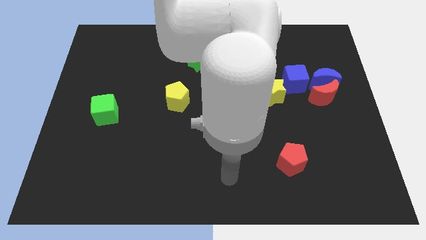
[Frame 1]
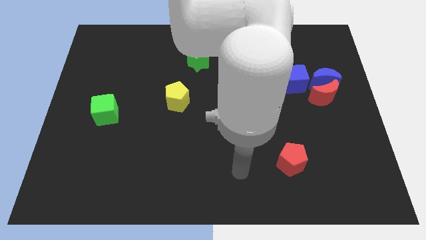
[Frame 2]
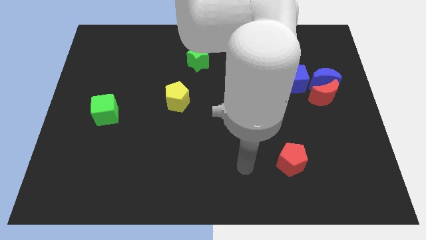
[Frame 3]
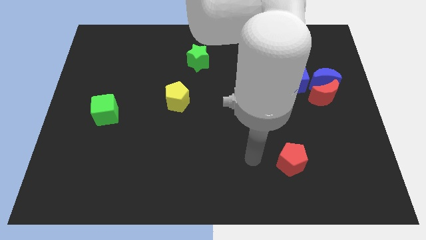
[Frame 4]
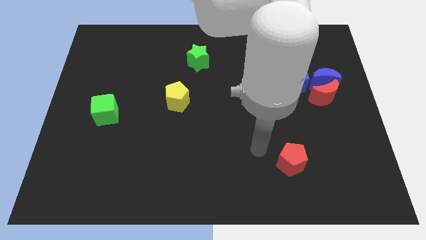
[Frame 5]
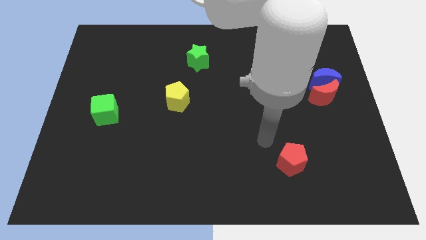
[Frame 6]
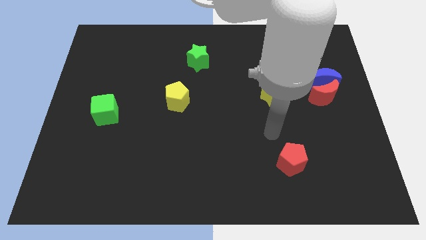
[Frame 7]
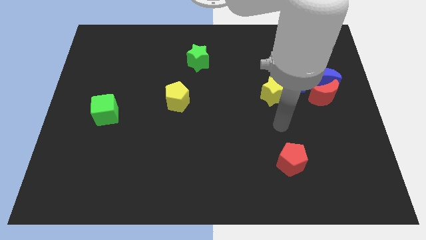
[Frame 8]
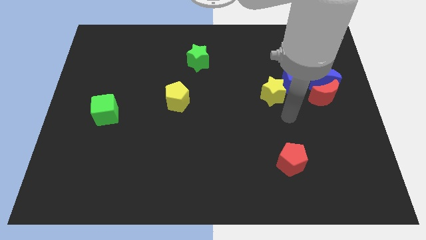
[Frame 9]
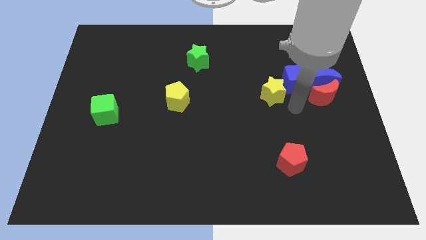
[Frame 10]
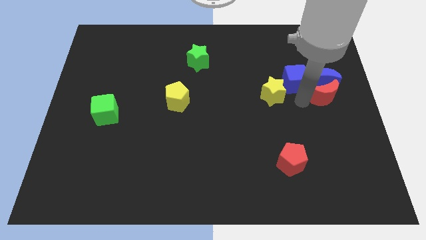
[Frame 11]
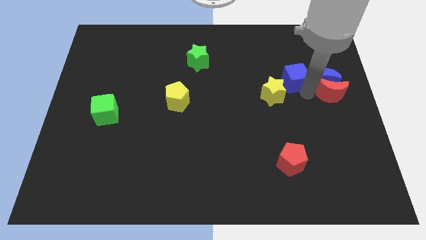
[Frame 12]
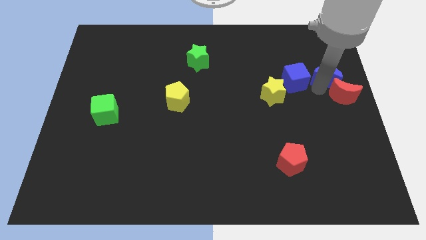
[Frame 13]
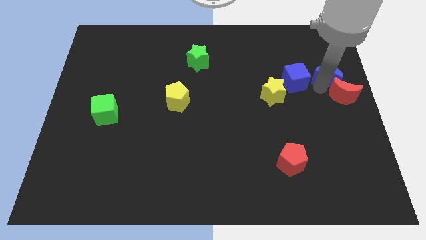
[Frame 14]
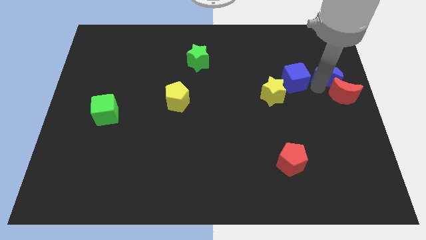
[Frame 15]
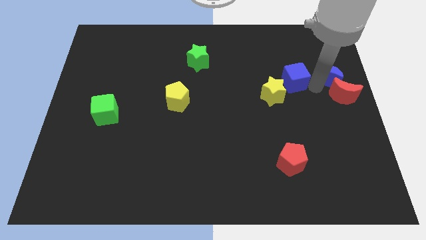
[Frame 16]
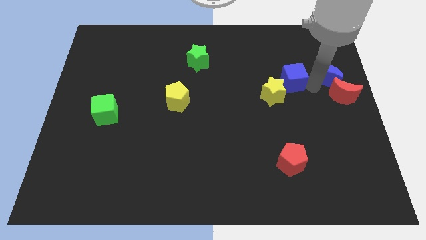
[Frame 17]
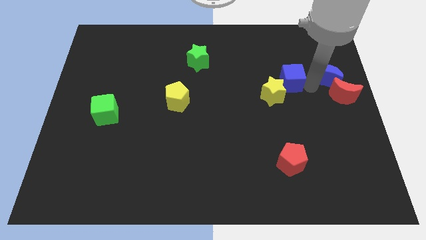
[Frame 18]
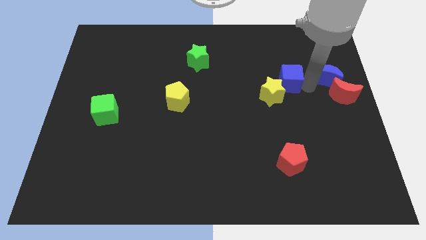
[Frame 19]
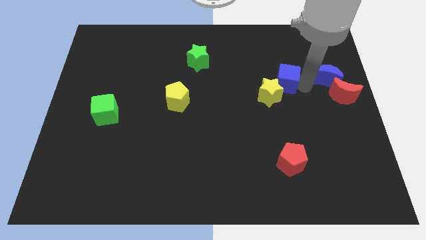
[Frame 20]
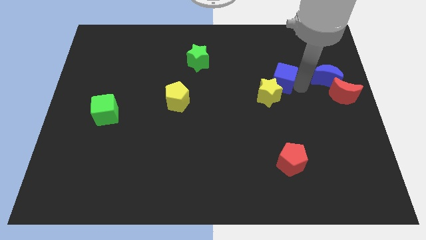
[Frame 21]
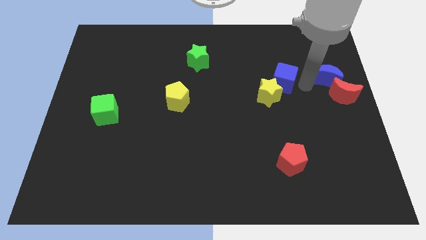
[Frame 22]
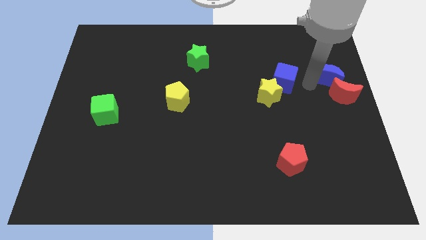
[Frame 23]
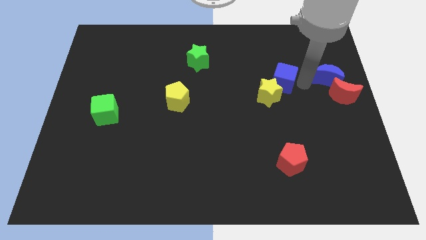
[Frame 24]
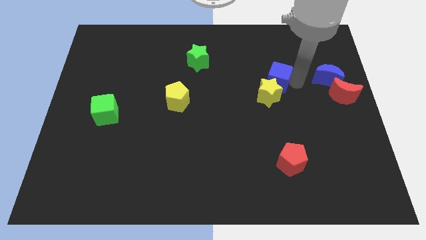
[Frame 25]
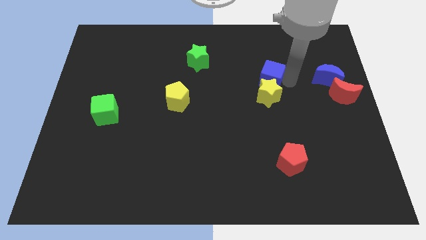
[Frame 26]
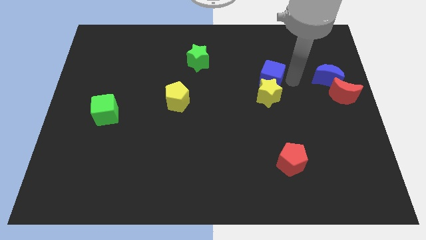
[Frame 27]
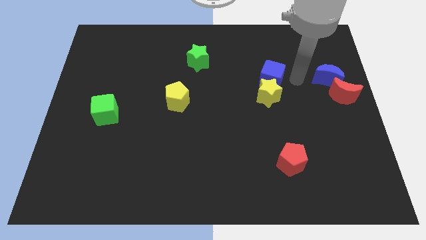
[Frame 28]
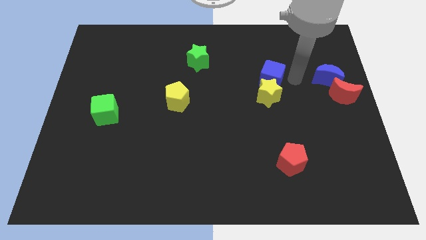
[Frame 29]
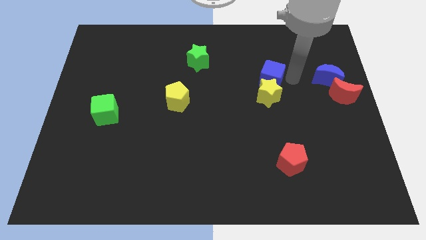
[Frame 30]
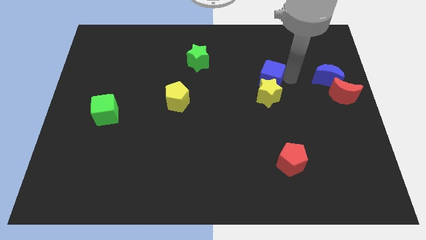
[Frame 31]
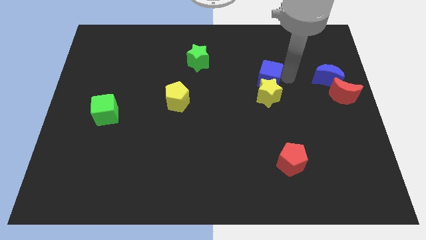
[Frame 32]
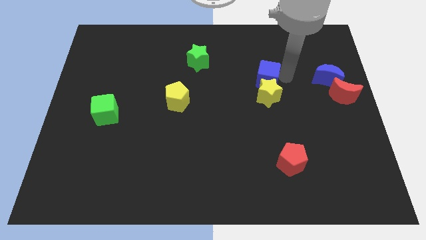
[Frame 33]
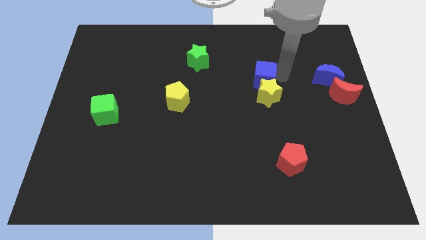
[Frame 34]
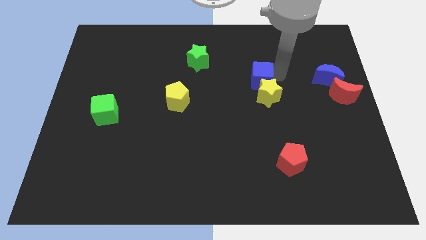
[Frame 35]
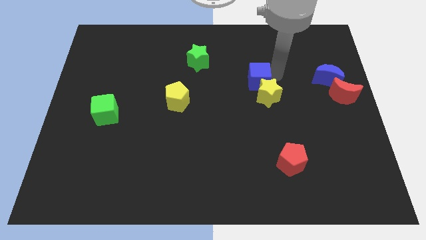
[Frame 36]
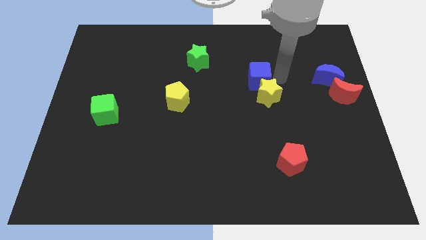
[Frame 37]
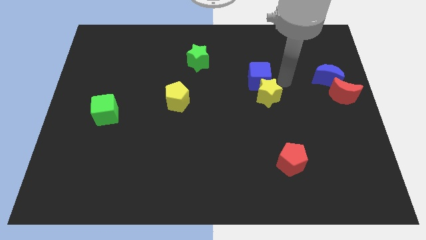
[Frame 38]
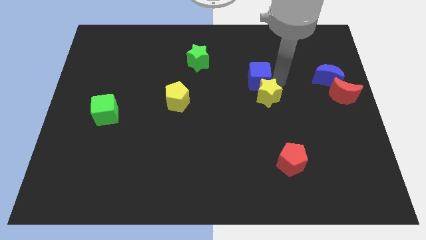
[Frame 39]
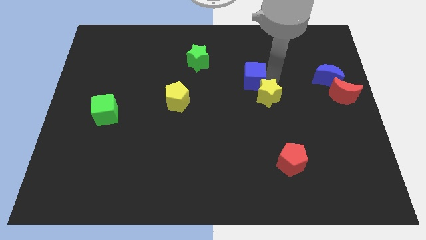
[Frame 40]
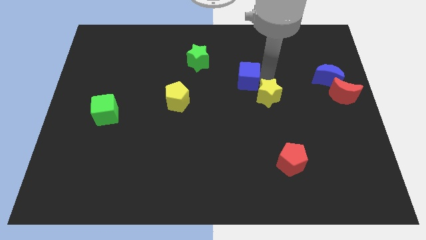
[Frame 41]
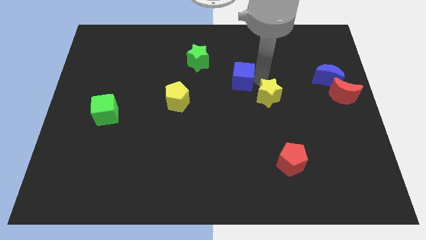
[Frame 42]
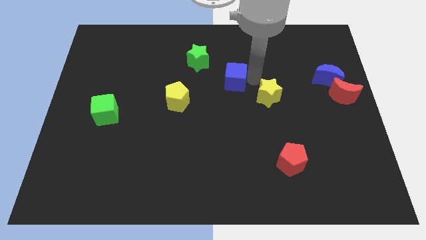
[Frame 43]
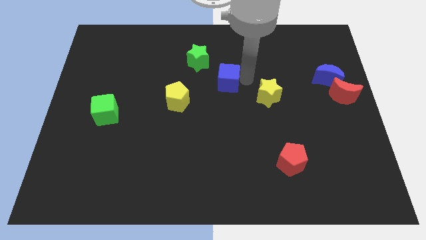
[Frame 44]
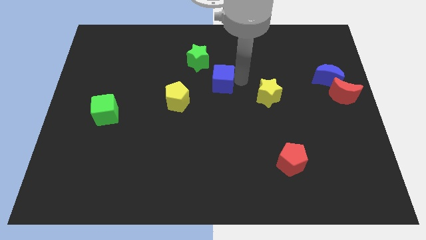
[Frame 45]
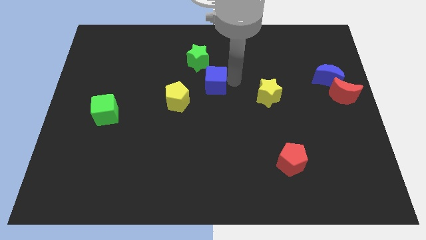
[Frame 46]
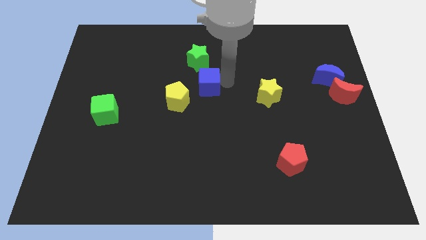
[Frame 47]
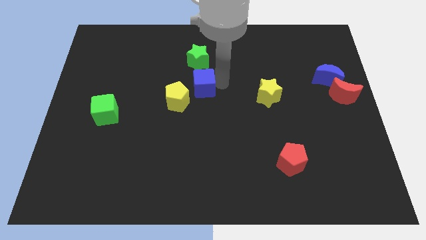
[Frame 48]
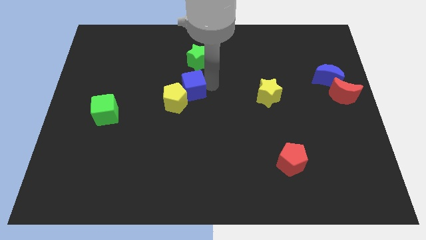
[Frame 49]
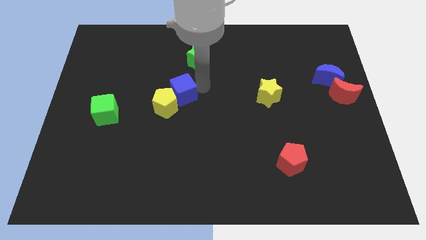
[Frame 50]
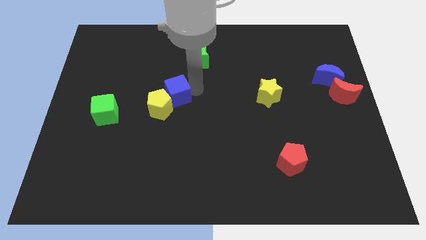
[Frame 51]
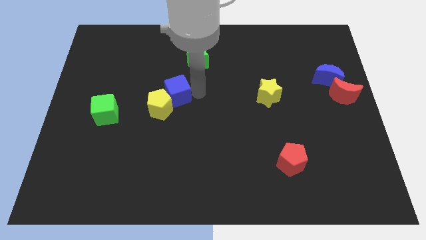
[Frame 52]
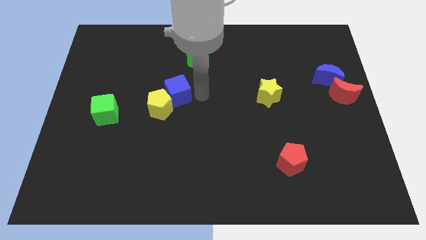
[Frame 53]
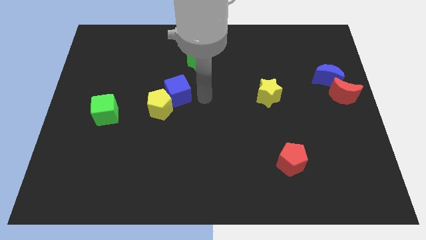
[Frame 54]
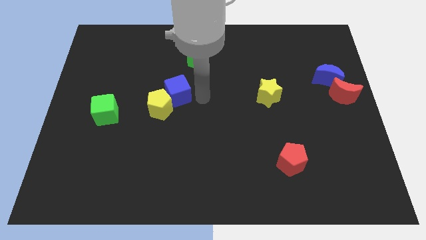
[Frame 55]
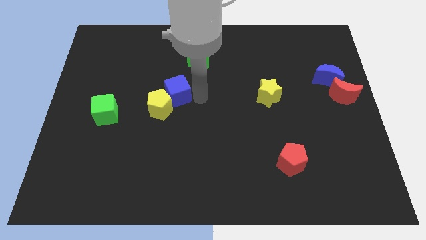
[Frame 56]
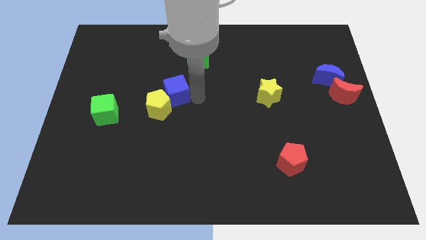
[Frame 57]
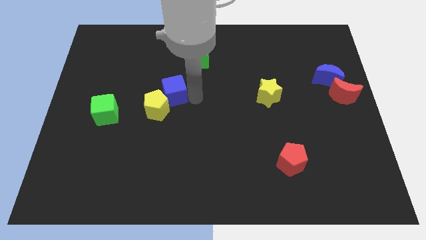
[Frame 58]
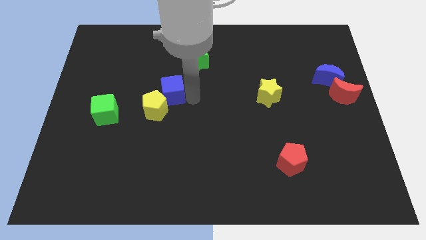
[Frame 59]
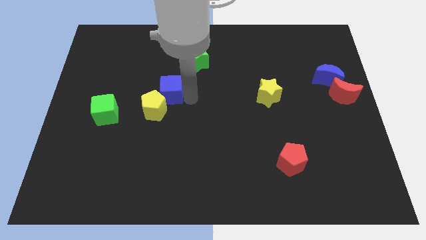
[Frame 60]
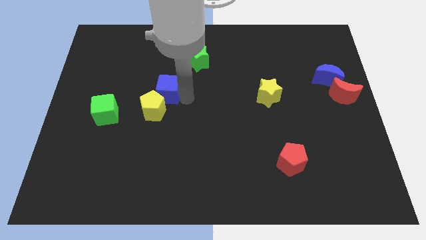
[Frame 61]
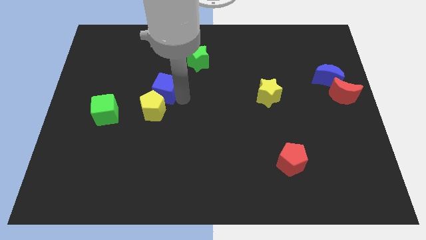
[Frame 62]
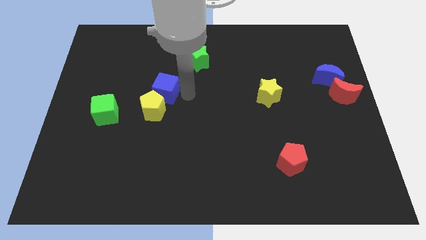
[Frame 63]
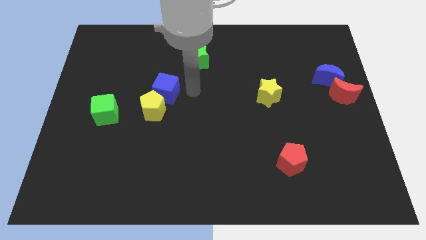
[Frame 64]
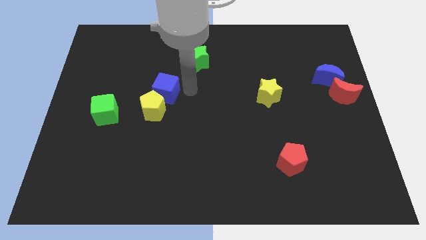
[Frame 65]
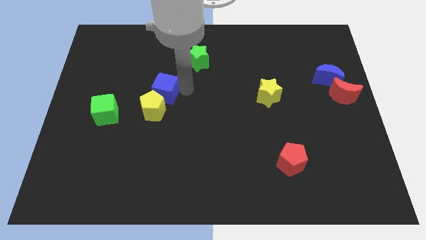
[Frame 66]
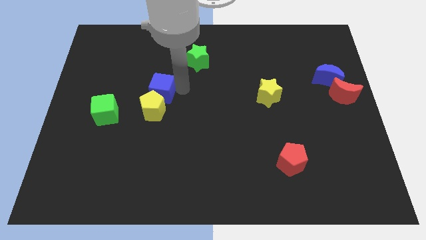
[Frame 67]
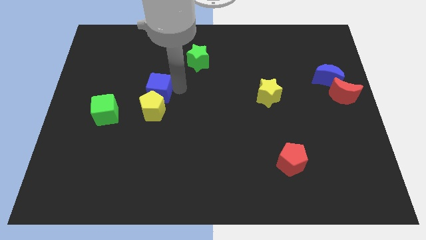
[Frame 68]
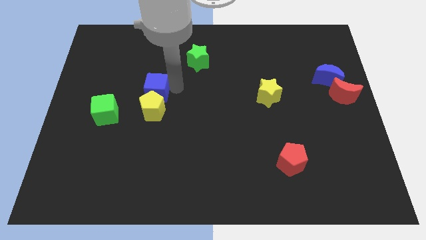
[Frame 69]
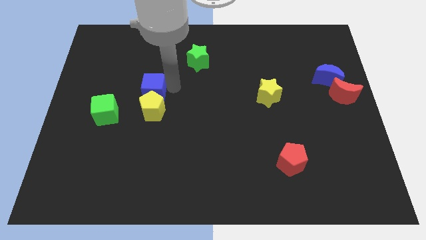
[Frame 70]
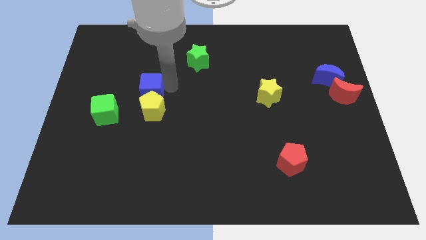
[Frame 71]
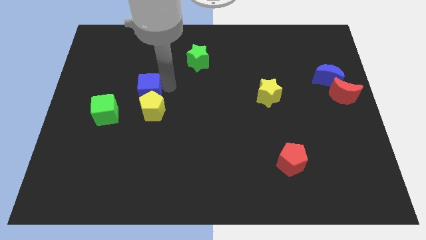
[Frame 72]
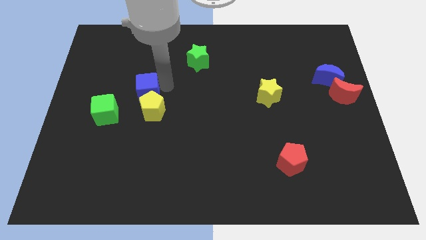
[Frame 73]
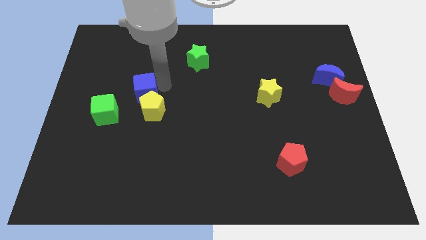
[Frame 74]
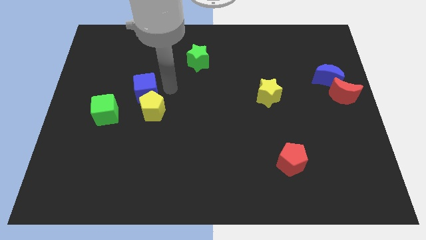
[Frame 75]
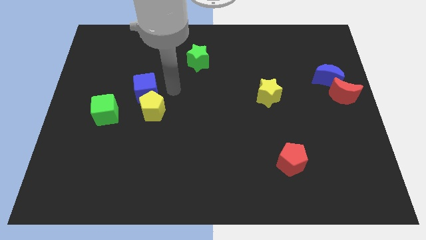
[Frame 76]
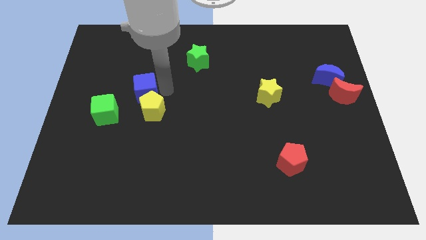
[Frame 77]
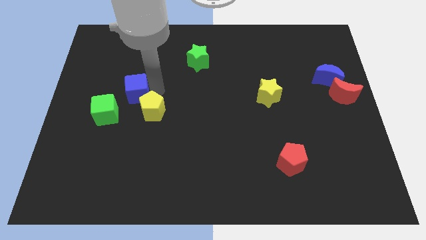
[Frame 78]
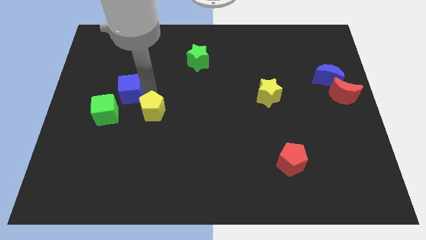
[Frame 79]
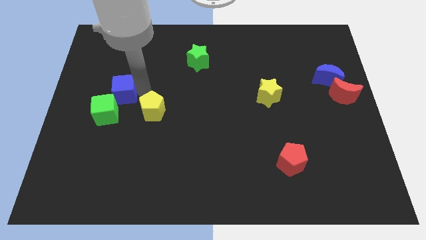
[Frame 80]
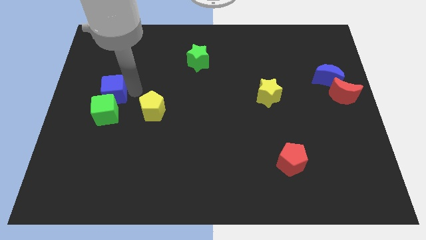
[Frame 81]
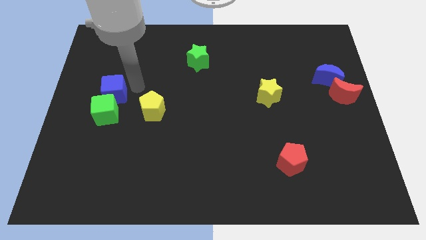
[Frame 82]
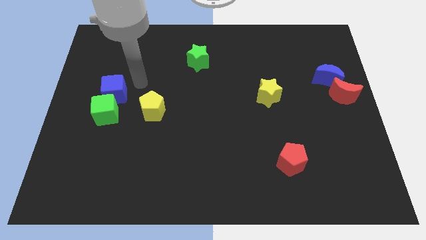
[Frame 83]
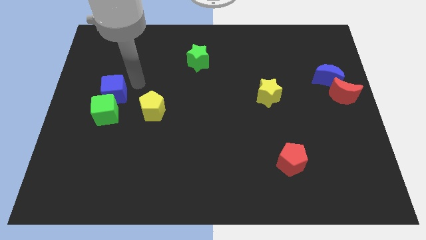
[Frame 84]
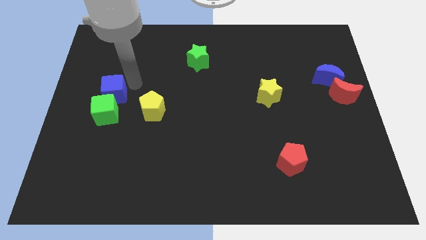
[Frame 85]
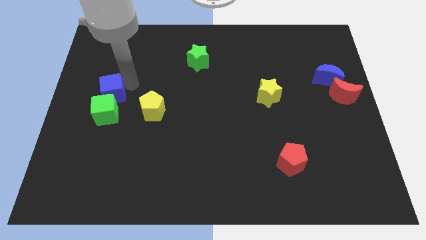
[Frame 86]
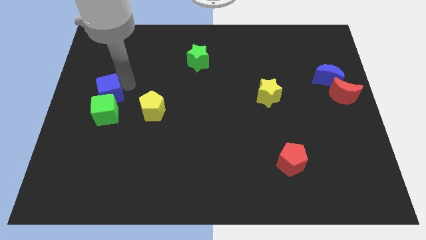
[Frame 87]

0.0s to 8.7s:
slide the blue cube to the center left
